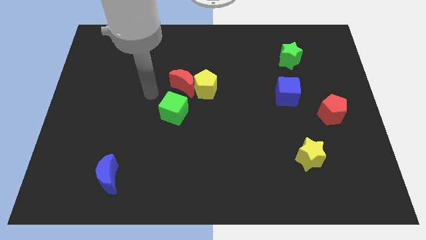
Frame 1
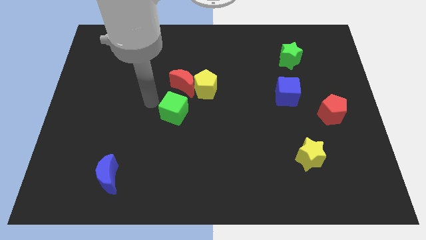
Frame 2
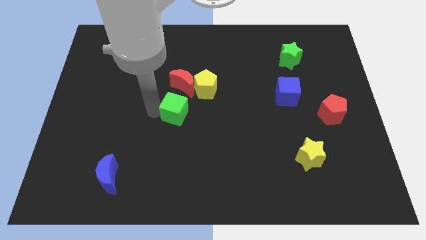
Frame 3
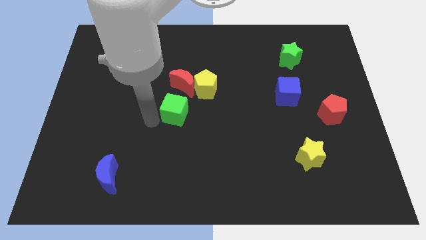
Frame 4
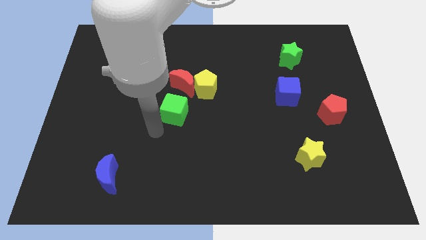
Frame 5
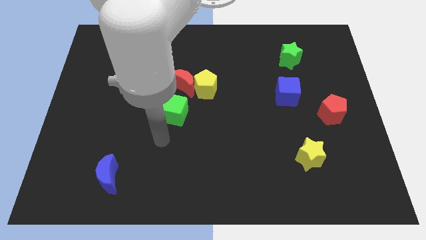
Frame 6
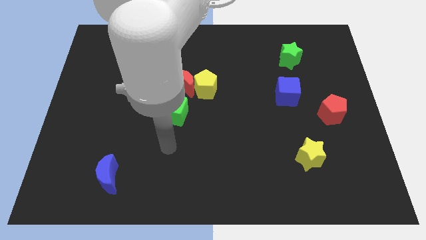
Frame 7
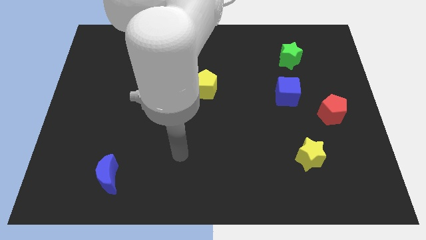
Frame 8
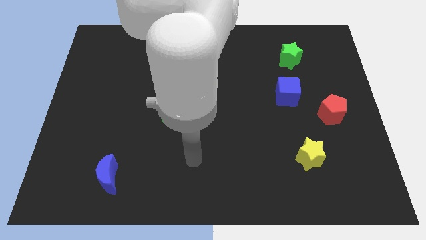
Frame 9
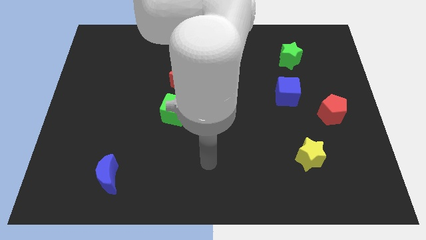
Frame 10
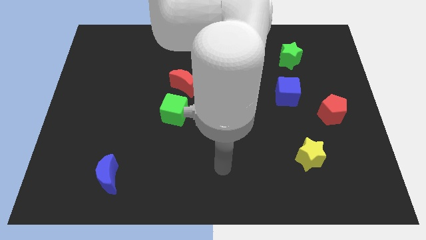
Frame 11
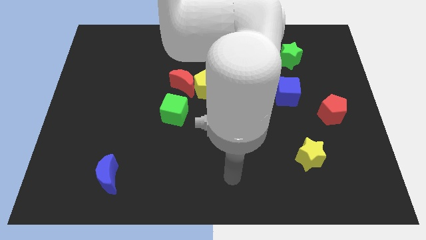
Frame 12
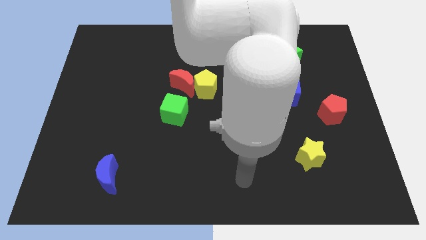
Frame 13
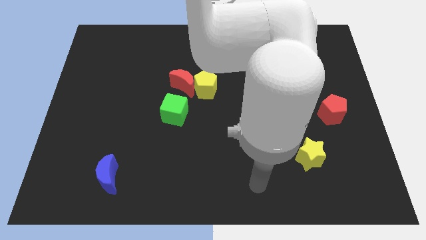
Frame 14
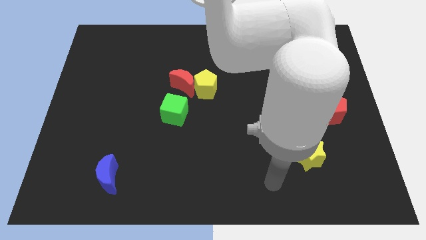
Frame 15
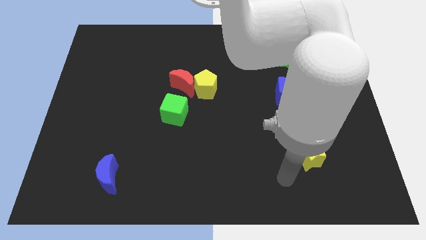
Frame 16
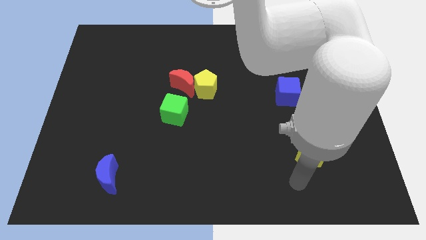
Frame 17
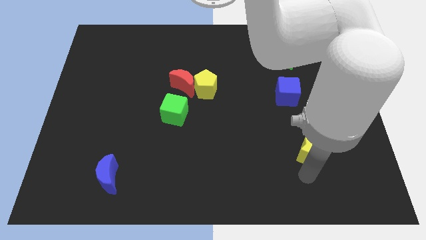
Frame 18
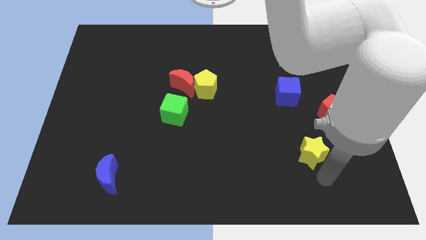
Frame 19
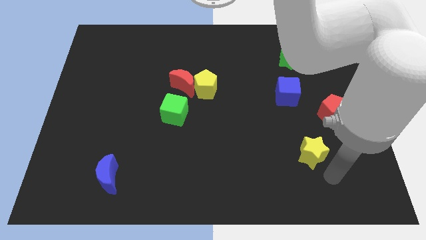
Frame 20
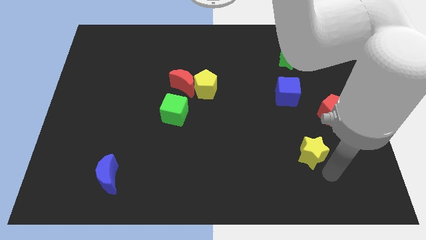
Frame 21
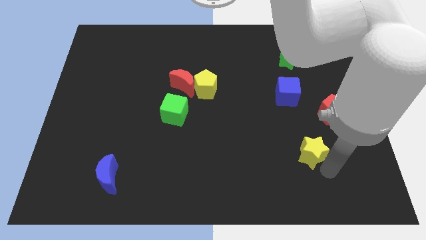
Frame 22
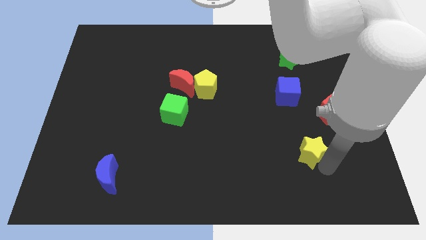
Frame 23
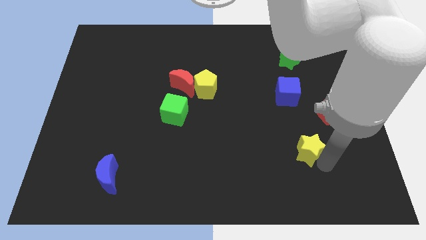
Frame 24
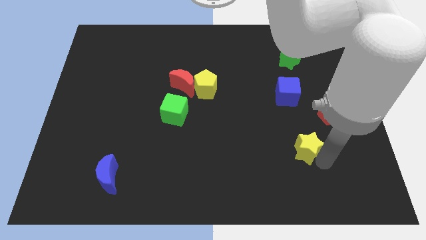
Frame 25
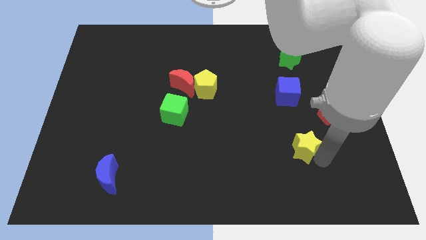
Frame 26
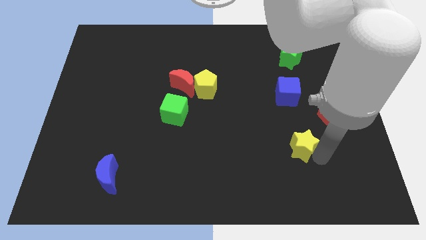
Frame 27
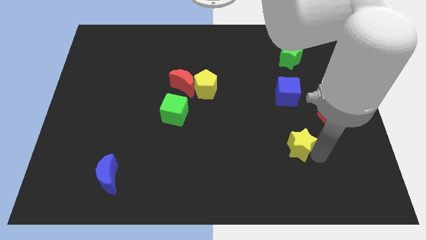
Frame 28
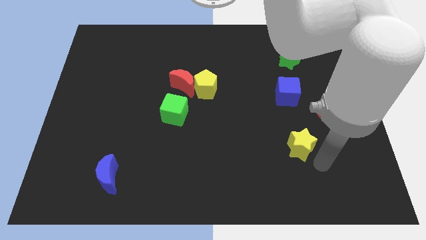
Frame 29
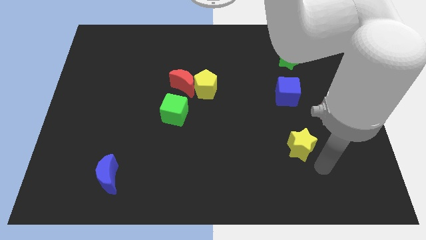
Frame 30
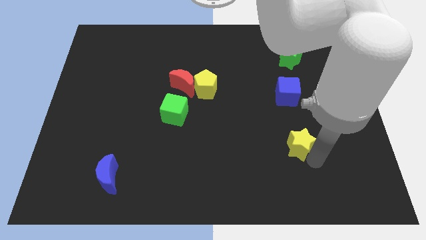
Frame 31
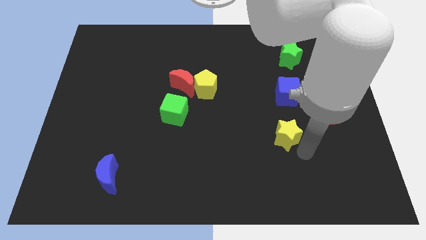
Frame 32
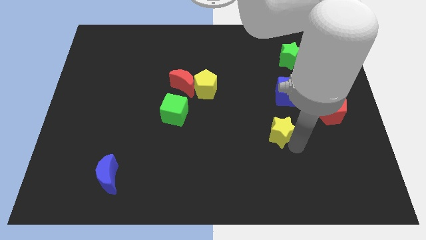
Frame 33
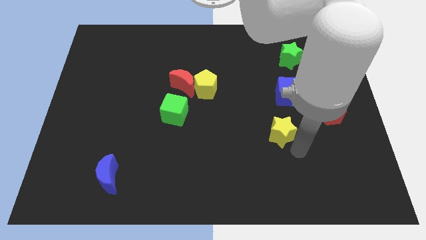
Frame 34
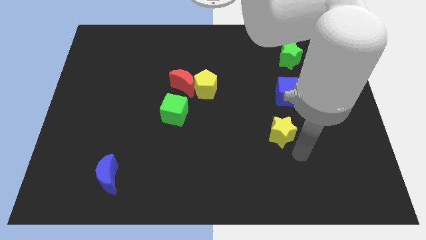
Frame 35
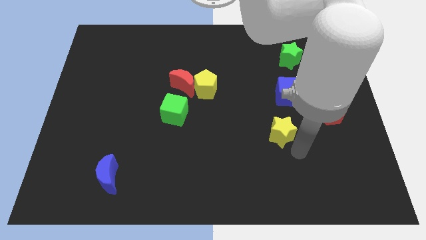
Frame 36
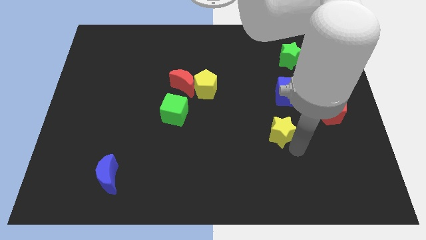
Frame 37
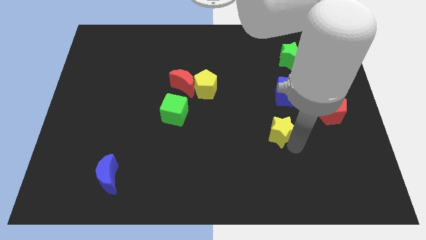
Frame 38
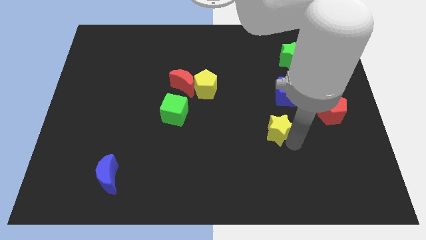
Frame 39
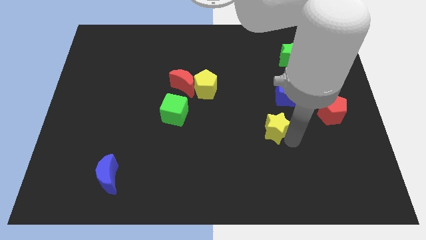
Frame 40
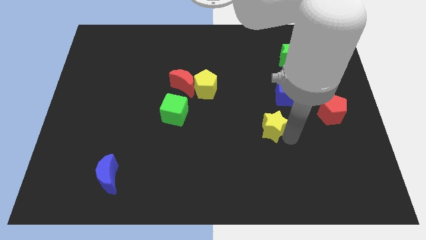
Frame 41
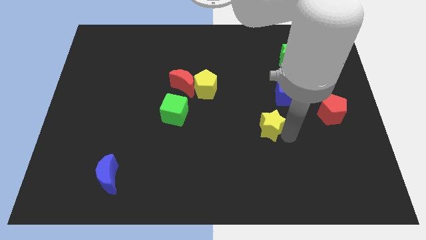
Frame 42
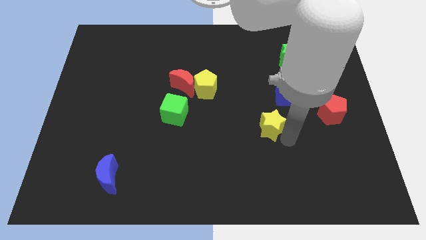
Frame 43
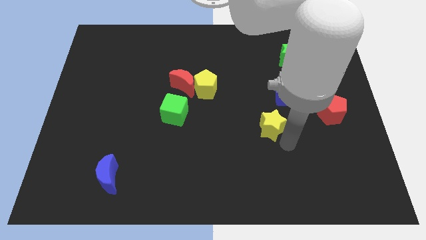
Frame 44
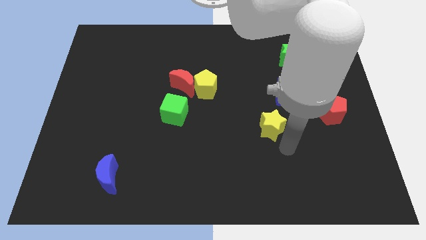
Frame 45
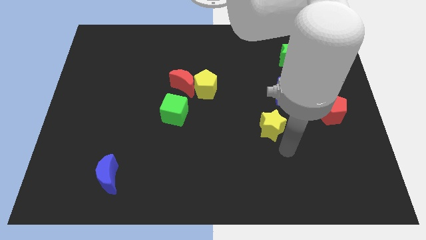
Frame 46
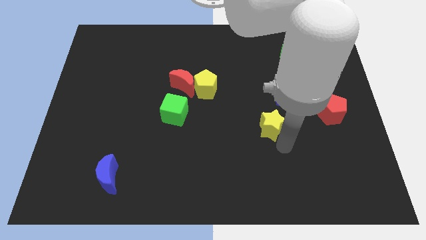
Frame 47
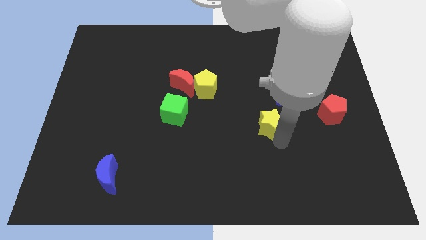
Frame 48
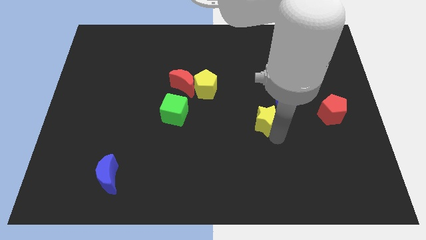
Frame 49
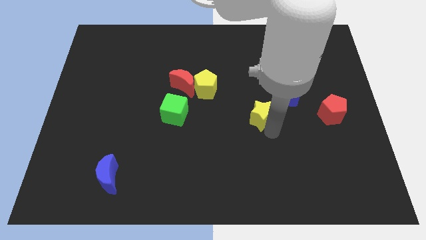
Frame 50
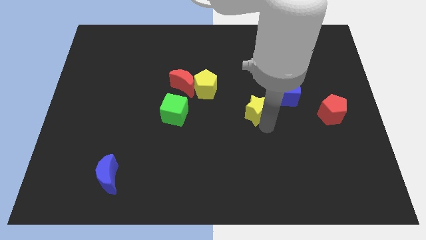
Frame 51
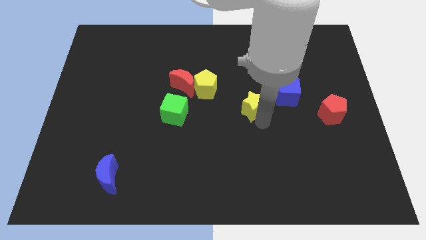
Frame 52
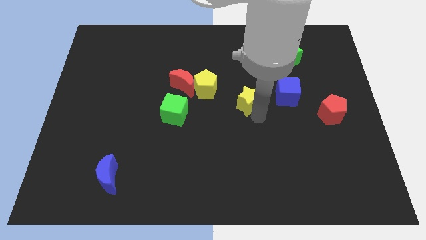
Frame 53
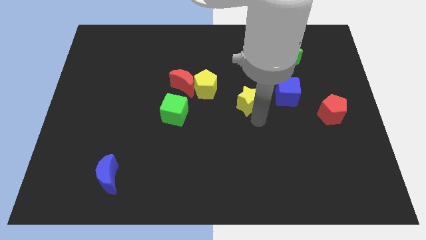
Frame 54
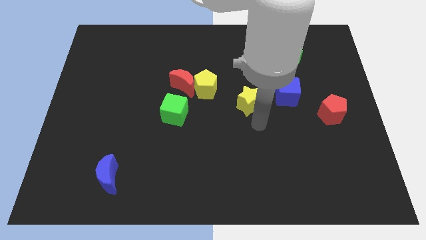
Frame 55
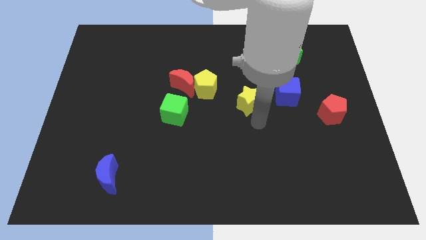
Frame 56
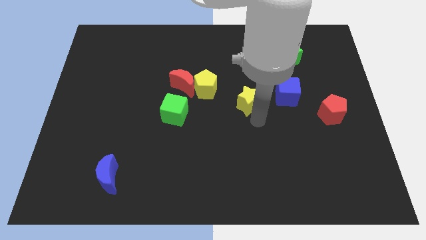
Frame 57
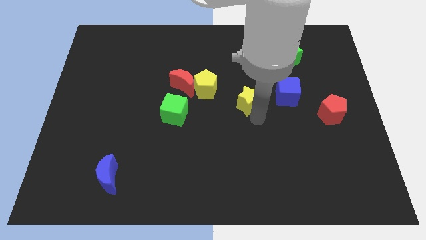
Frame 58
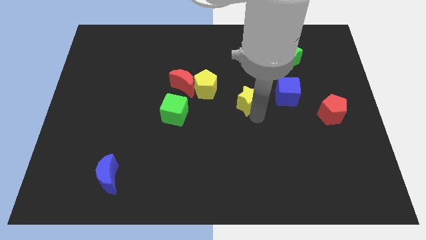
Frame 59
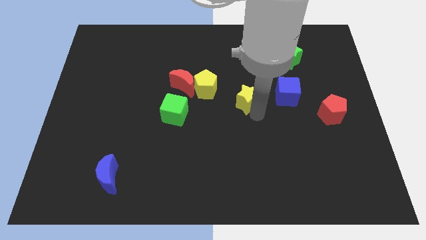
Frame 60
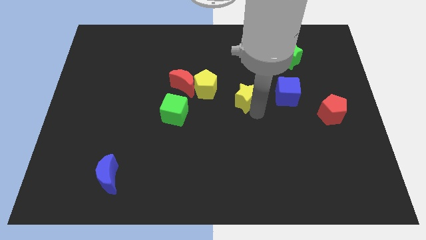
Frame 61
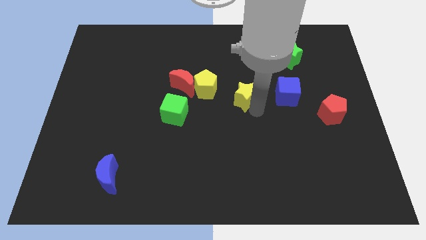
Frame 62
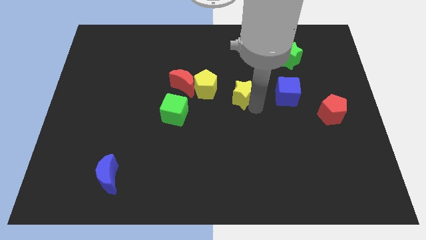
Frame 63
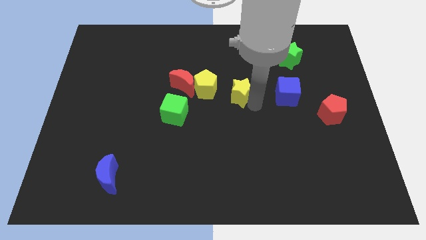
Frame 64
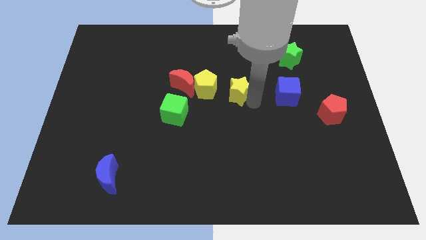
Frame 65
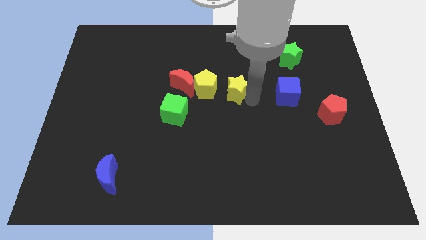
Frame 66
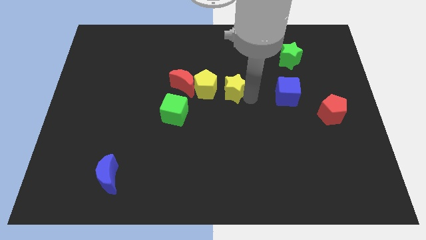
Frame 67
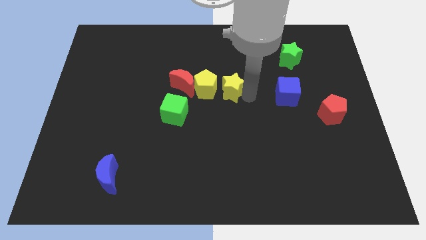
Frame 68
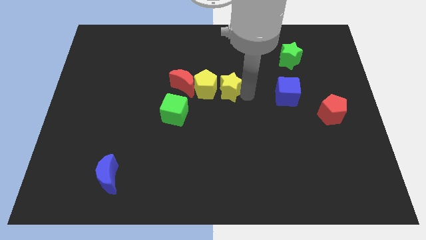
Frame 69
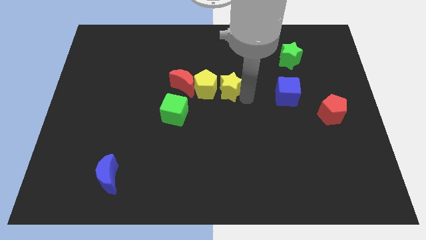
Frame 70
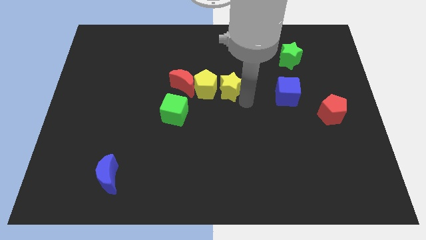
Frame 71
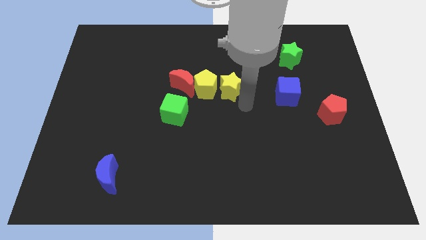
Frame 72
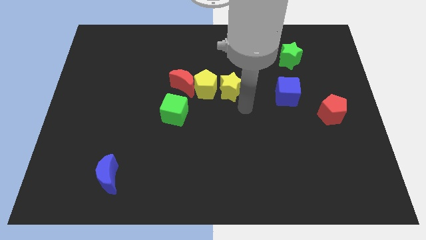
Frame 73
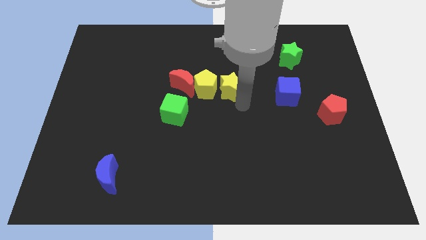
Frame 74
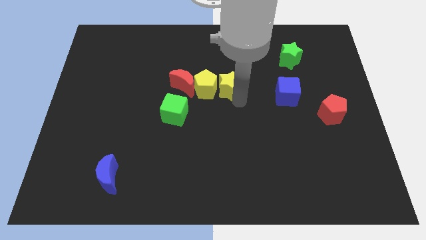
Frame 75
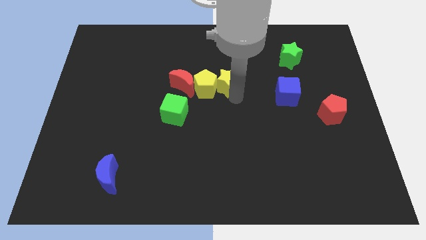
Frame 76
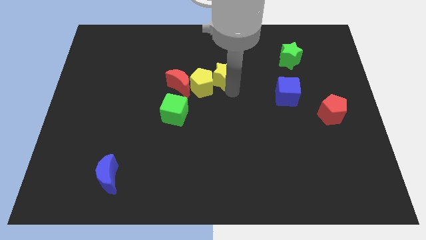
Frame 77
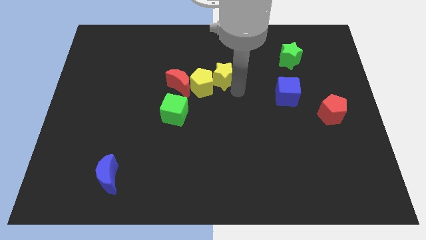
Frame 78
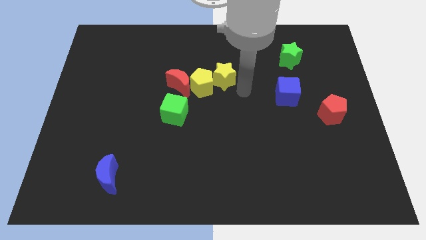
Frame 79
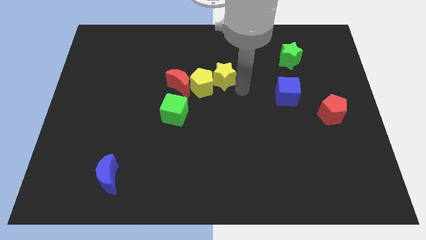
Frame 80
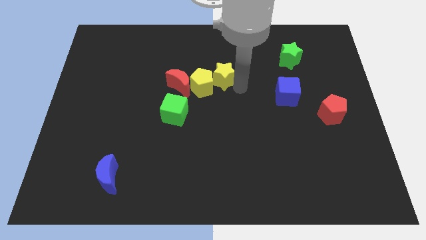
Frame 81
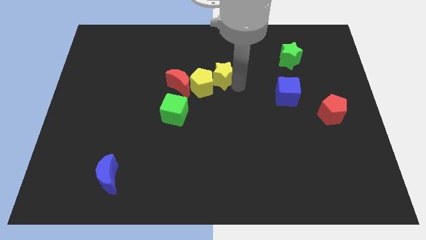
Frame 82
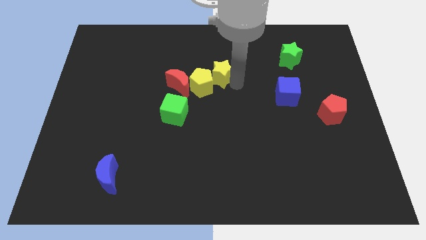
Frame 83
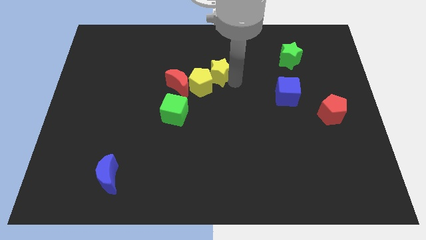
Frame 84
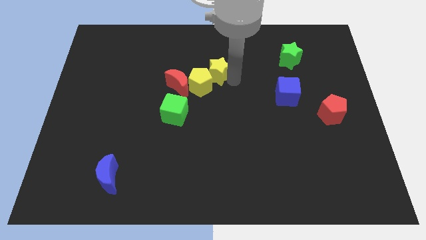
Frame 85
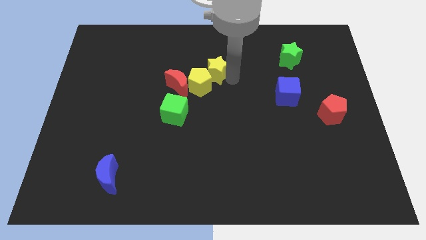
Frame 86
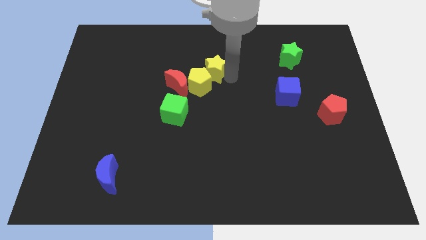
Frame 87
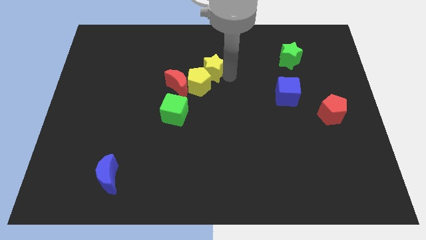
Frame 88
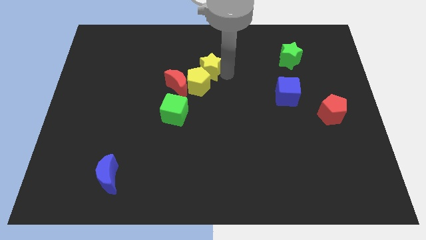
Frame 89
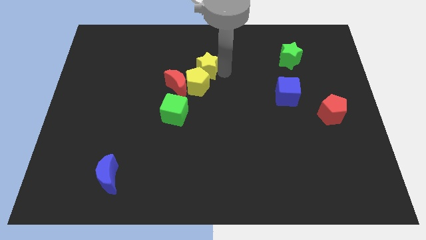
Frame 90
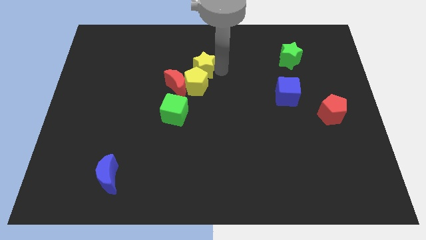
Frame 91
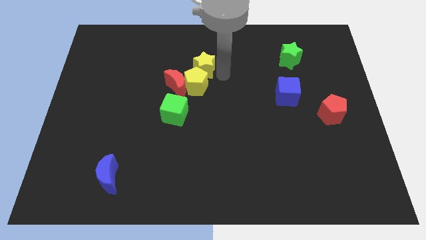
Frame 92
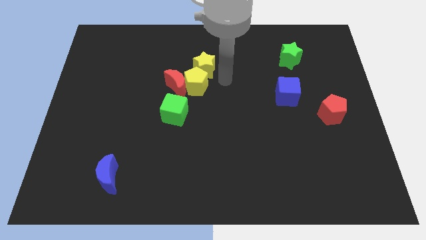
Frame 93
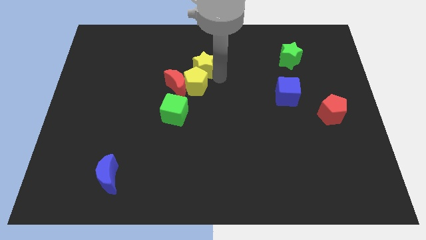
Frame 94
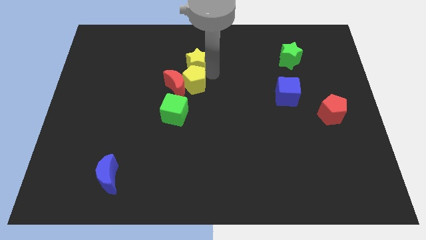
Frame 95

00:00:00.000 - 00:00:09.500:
push the yellow star to the top side of the red moon
